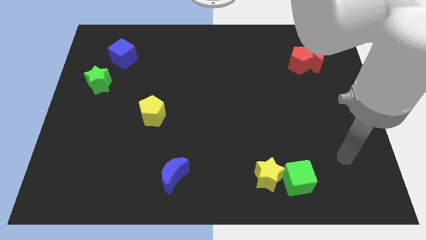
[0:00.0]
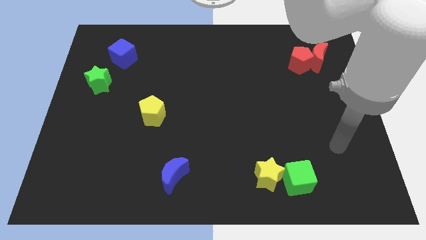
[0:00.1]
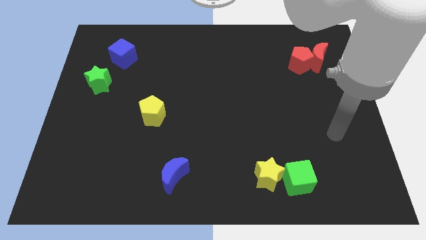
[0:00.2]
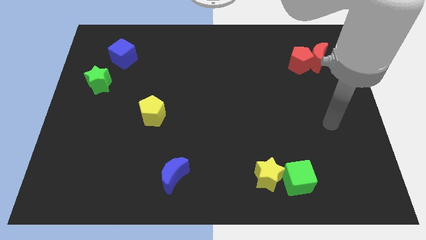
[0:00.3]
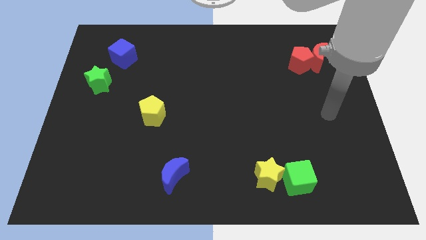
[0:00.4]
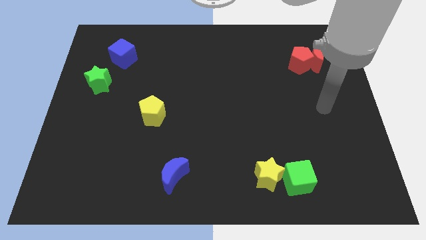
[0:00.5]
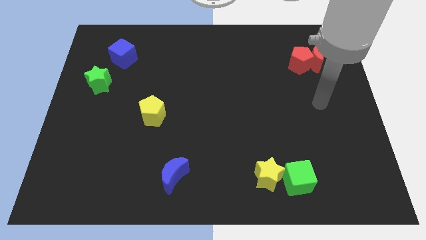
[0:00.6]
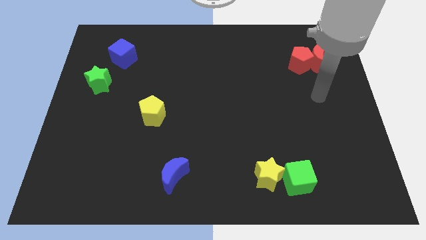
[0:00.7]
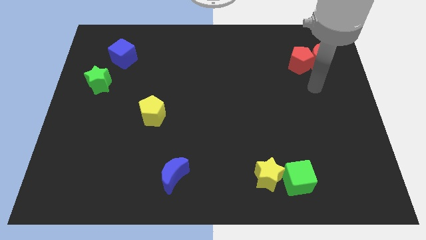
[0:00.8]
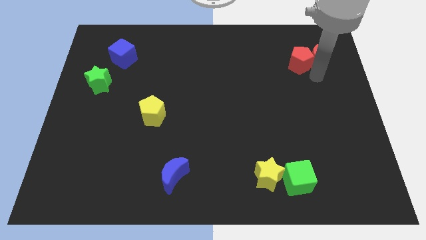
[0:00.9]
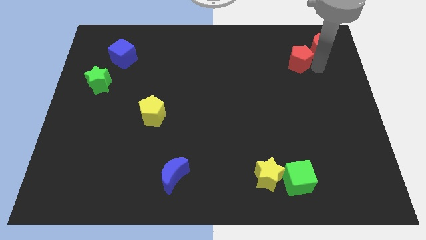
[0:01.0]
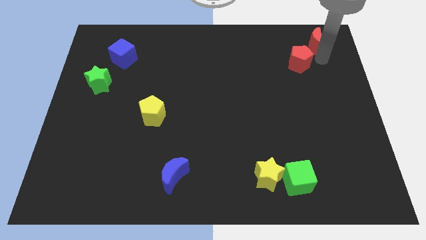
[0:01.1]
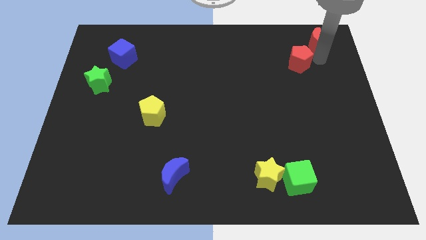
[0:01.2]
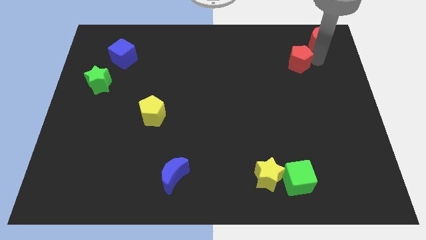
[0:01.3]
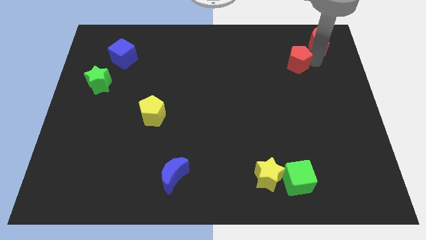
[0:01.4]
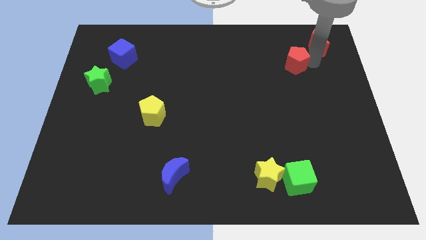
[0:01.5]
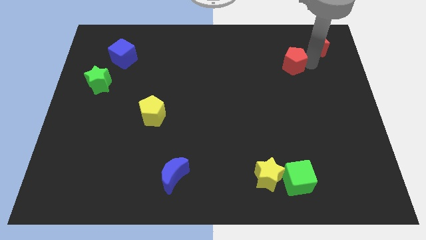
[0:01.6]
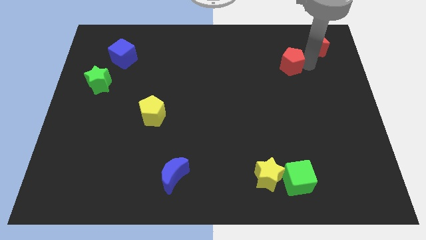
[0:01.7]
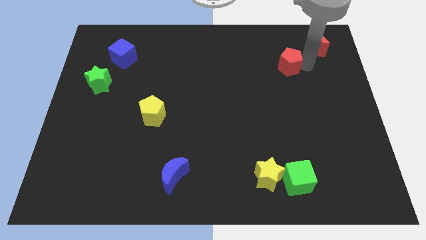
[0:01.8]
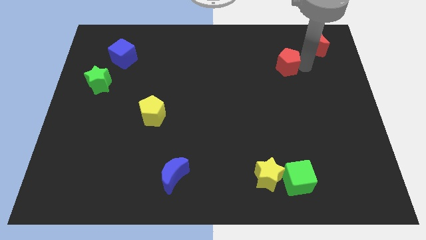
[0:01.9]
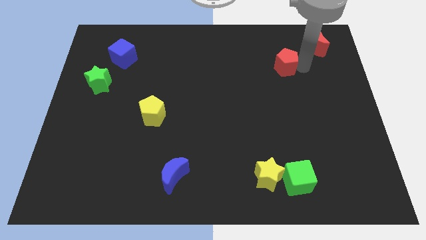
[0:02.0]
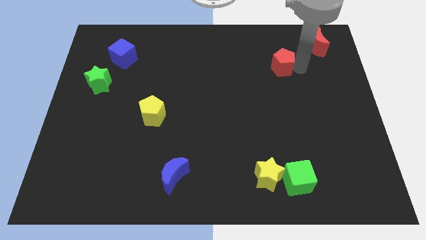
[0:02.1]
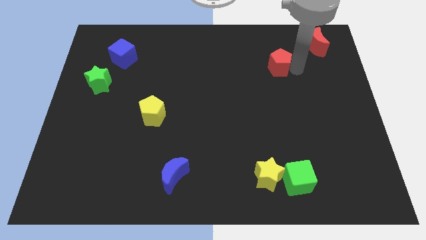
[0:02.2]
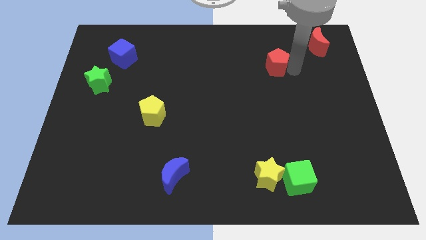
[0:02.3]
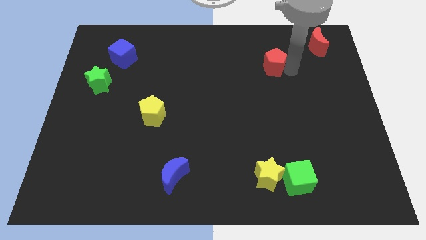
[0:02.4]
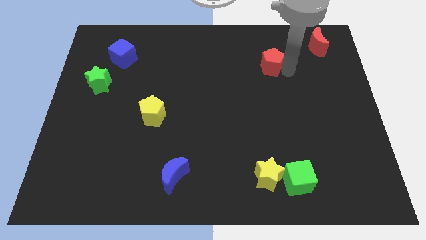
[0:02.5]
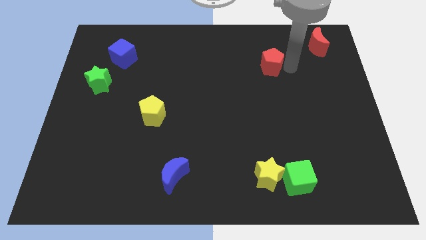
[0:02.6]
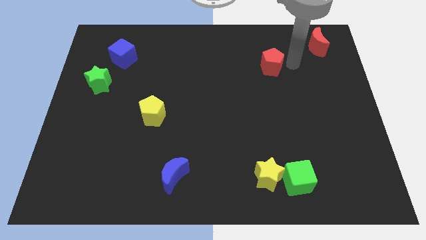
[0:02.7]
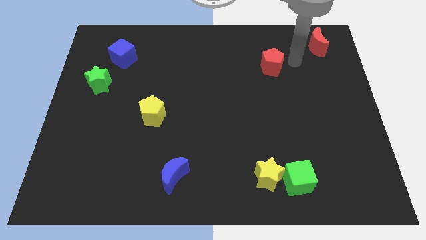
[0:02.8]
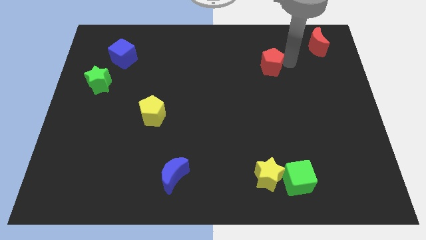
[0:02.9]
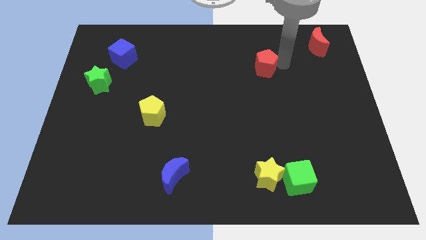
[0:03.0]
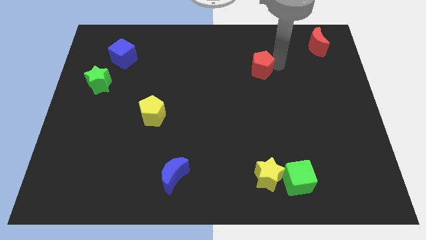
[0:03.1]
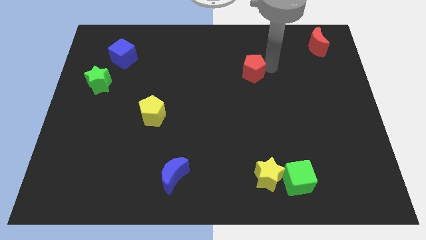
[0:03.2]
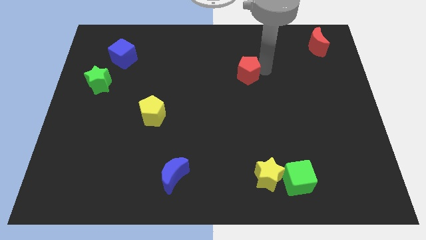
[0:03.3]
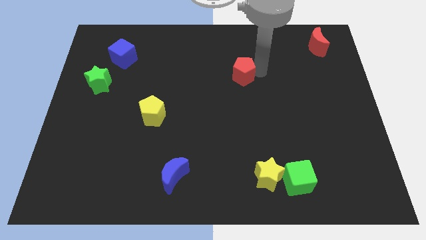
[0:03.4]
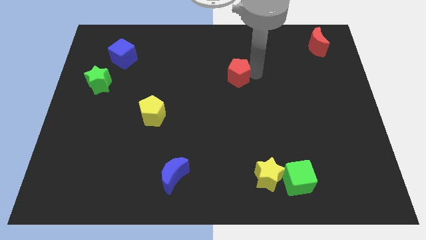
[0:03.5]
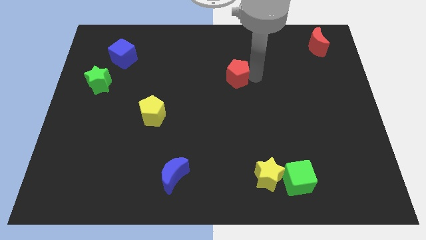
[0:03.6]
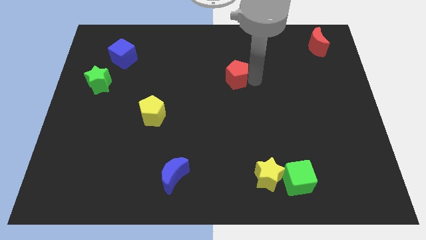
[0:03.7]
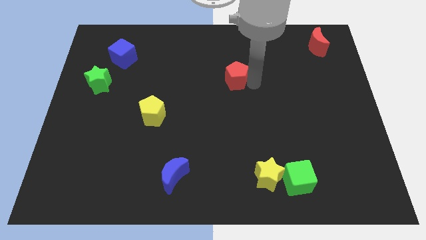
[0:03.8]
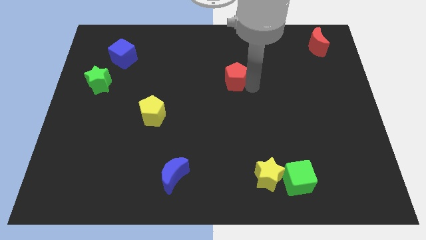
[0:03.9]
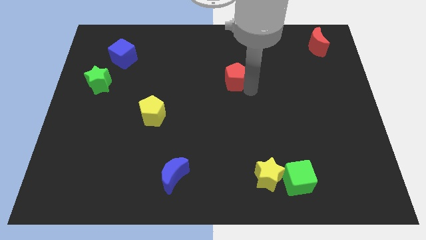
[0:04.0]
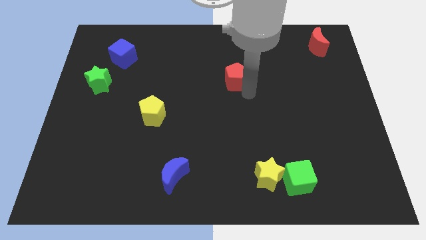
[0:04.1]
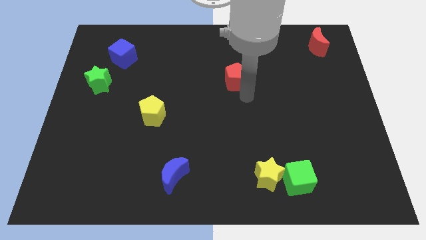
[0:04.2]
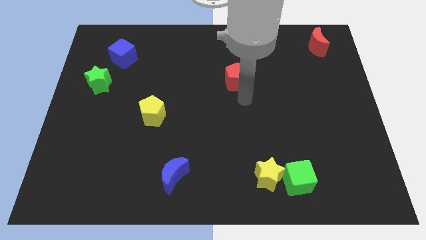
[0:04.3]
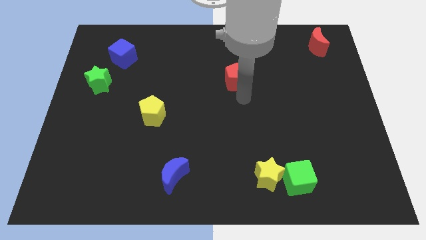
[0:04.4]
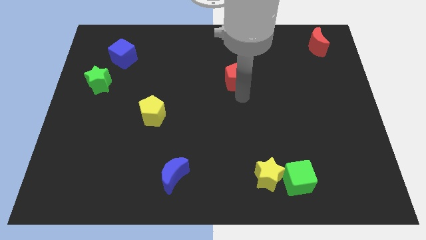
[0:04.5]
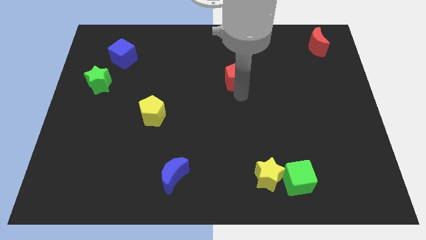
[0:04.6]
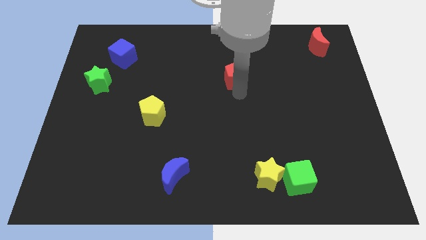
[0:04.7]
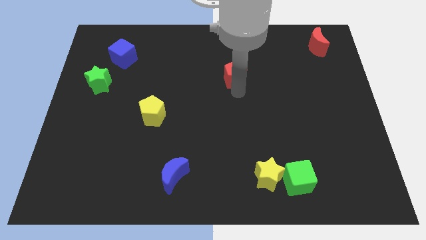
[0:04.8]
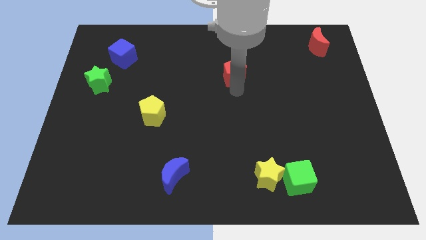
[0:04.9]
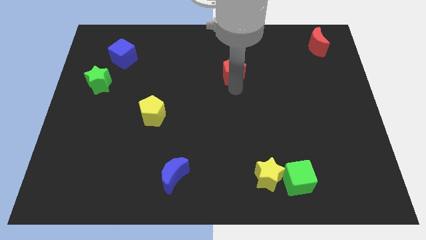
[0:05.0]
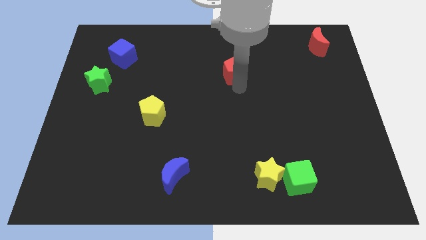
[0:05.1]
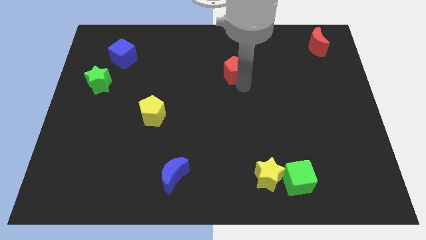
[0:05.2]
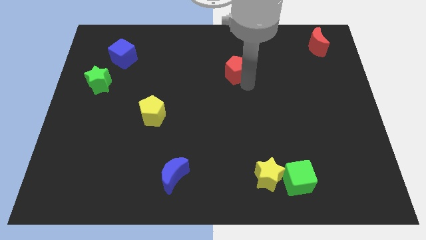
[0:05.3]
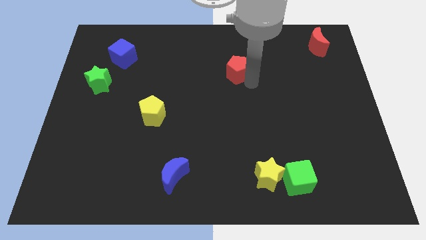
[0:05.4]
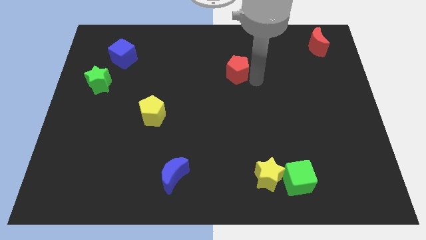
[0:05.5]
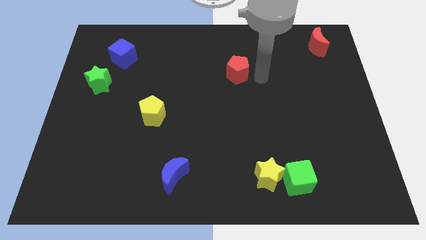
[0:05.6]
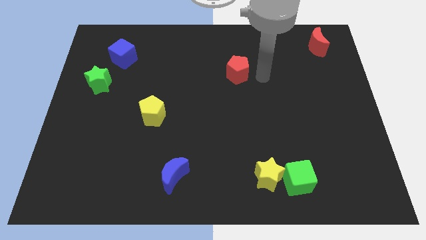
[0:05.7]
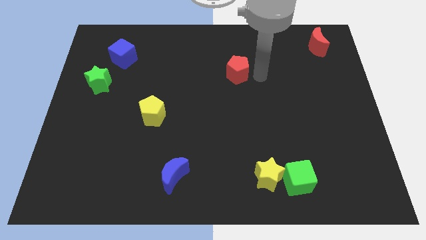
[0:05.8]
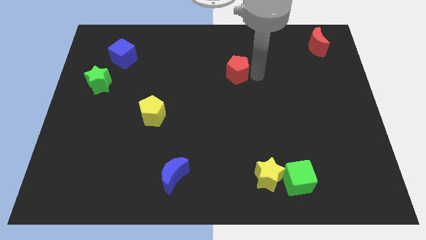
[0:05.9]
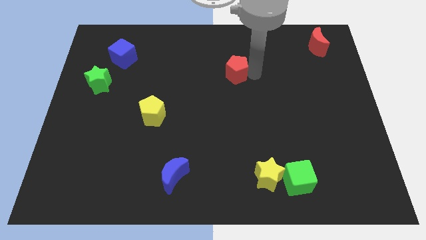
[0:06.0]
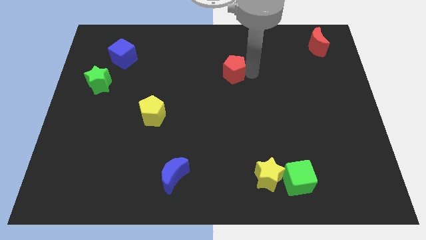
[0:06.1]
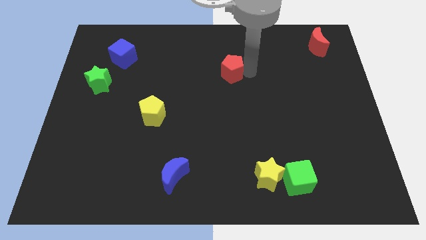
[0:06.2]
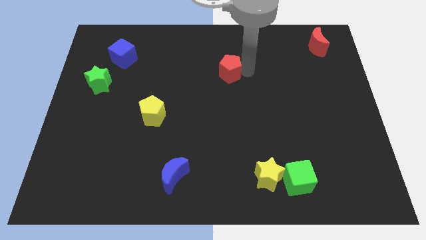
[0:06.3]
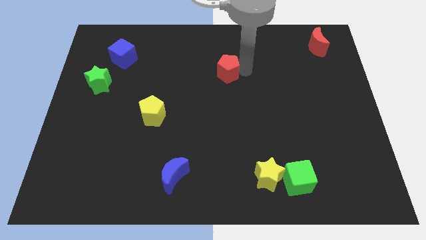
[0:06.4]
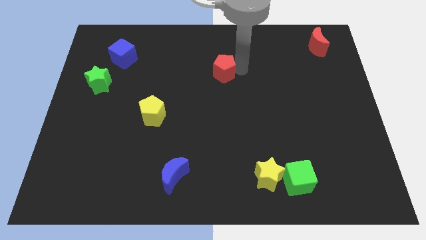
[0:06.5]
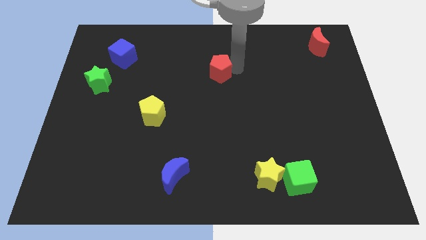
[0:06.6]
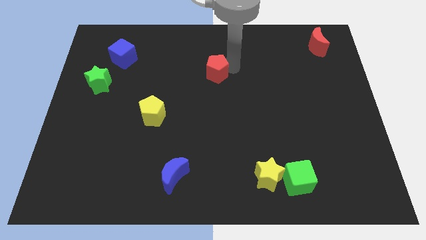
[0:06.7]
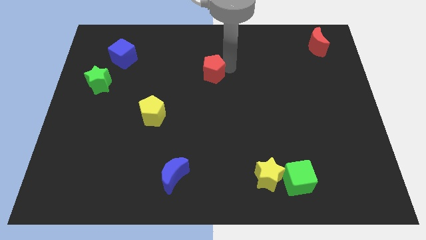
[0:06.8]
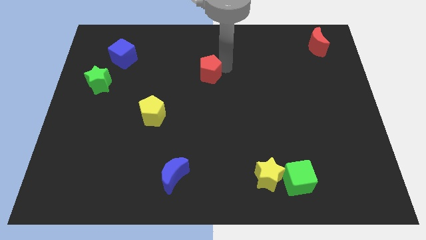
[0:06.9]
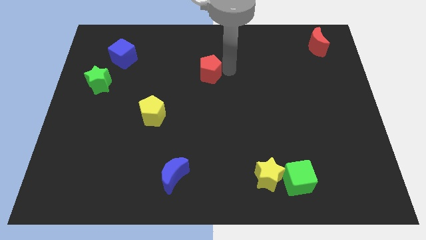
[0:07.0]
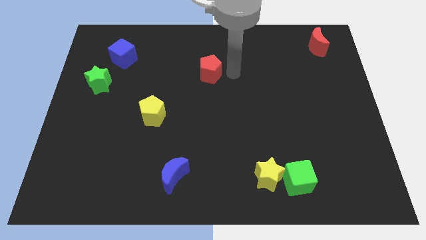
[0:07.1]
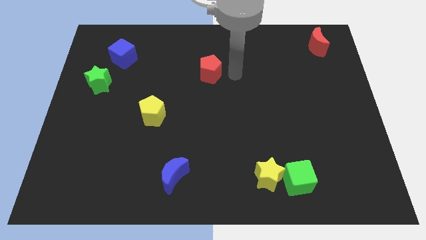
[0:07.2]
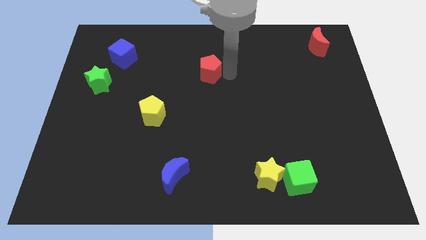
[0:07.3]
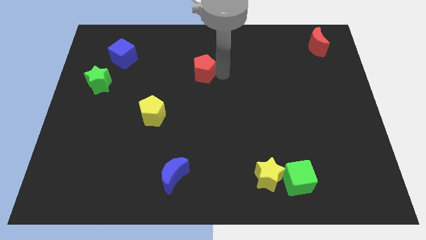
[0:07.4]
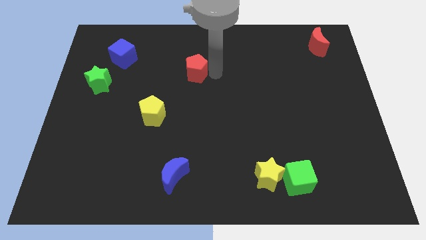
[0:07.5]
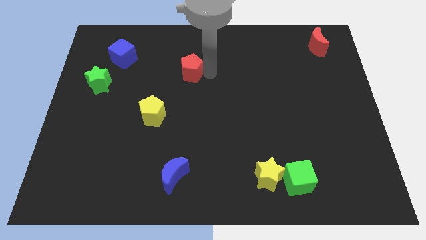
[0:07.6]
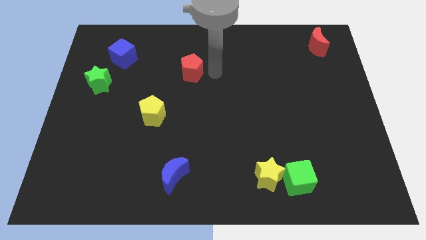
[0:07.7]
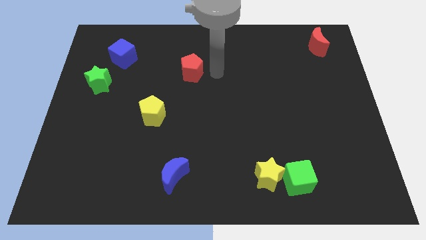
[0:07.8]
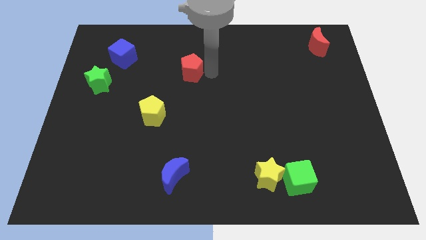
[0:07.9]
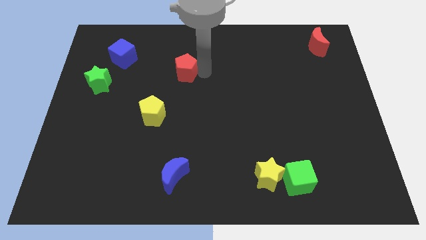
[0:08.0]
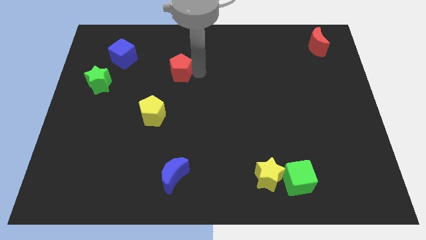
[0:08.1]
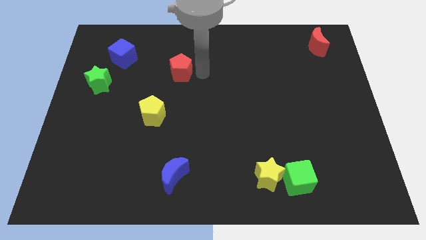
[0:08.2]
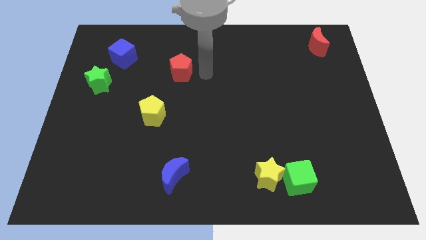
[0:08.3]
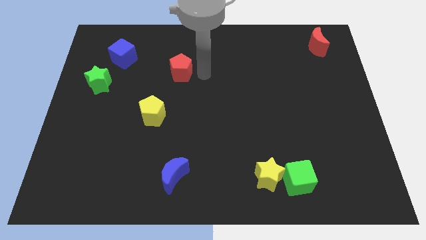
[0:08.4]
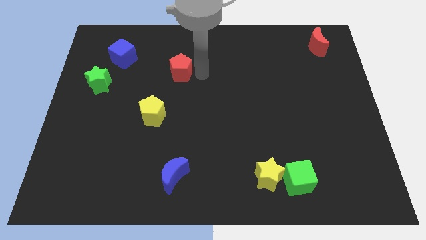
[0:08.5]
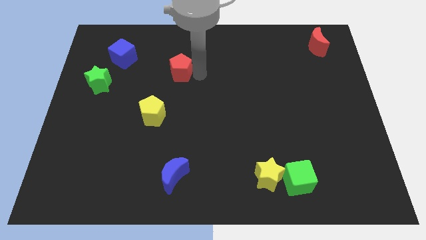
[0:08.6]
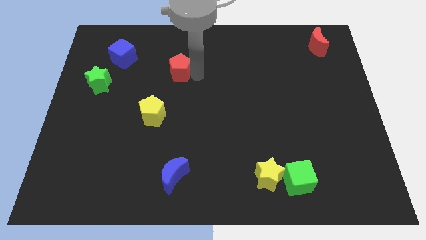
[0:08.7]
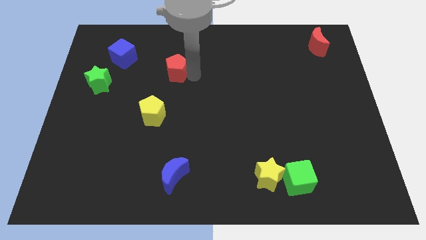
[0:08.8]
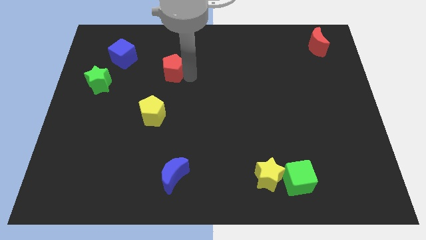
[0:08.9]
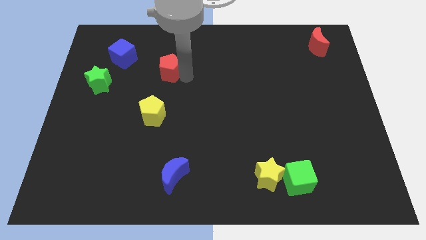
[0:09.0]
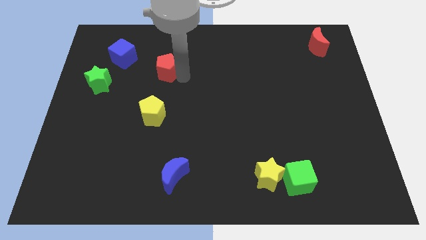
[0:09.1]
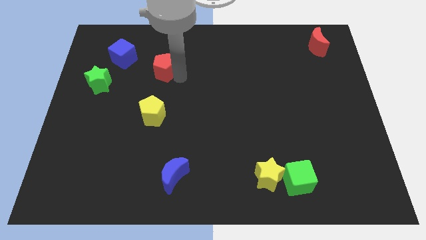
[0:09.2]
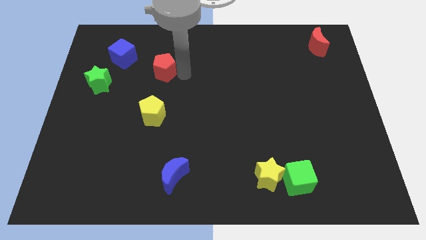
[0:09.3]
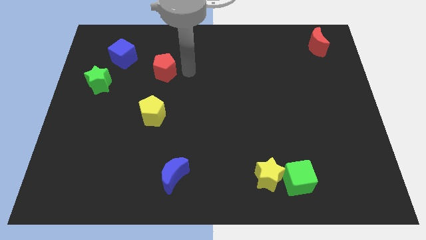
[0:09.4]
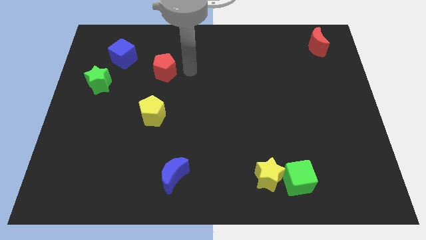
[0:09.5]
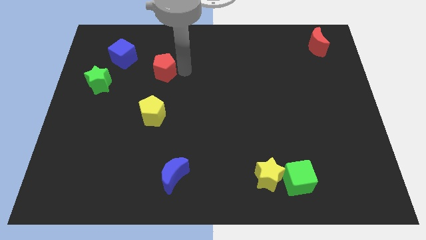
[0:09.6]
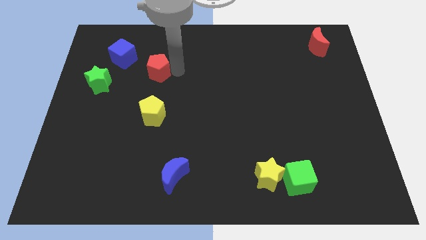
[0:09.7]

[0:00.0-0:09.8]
move the red pentagon to the bottom right side of the blue cube
